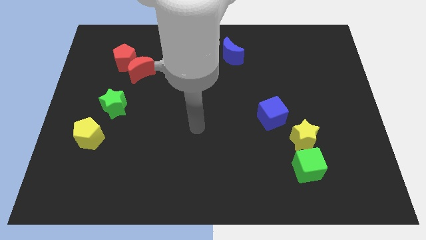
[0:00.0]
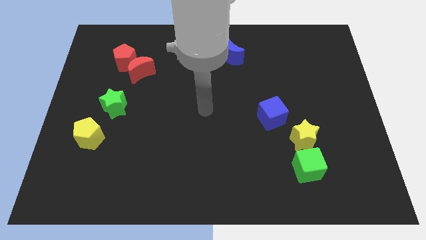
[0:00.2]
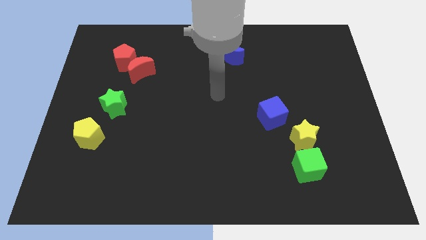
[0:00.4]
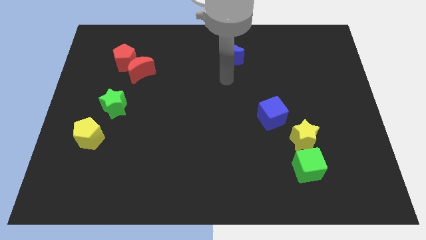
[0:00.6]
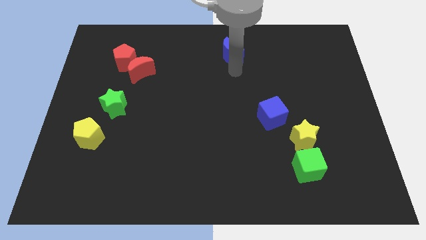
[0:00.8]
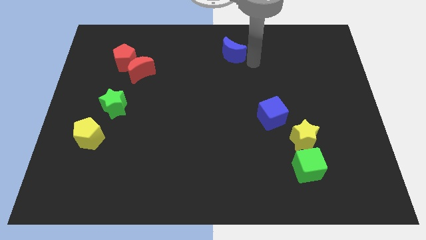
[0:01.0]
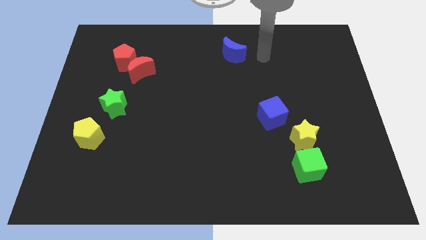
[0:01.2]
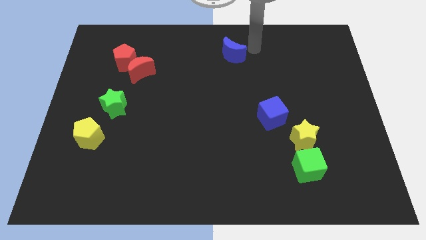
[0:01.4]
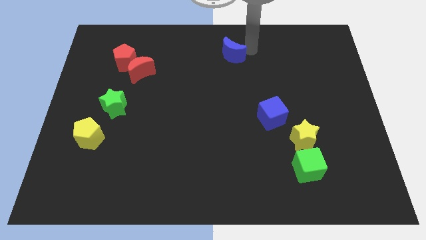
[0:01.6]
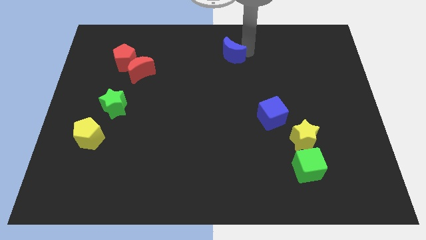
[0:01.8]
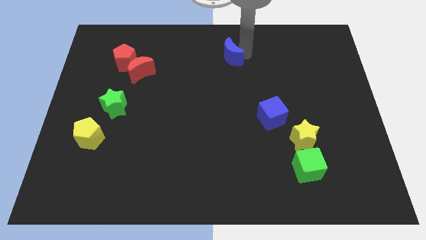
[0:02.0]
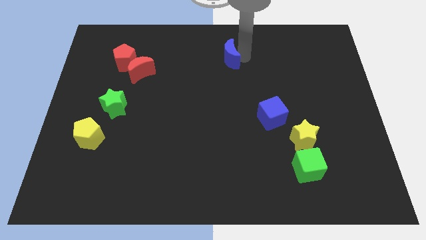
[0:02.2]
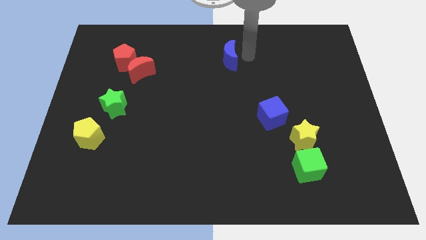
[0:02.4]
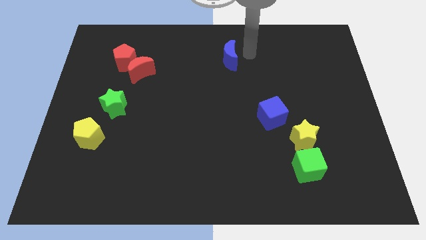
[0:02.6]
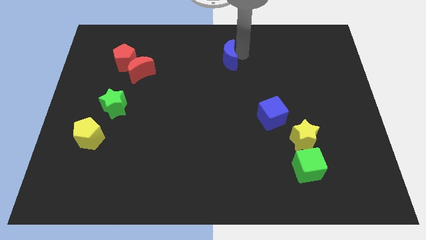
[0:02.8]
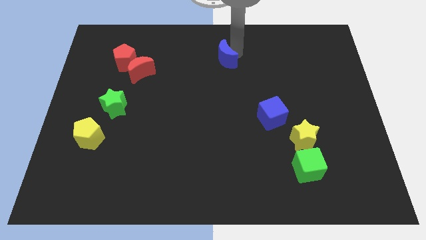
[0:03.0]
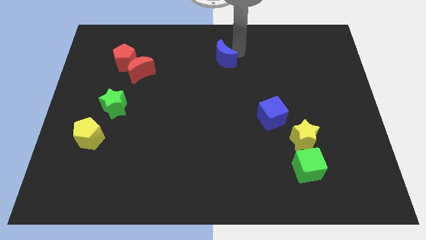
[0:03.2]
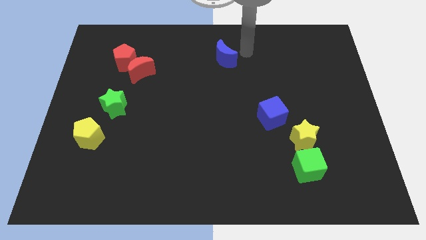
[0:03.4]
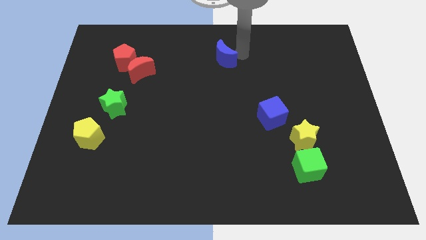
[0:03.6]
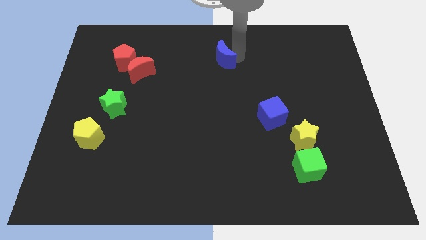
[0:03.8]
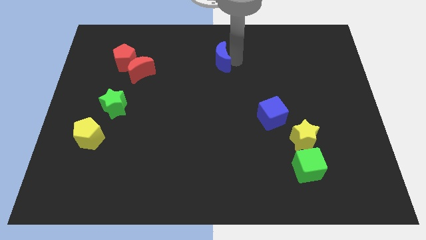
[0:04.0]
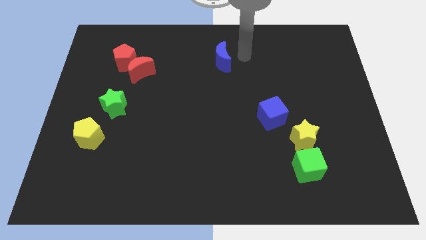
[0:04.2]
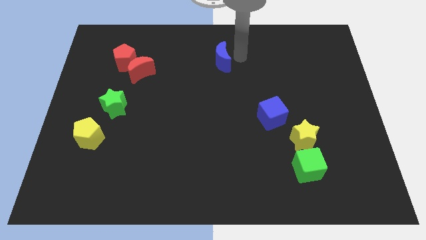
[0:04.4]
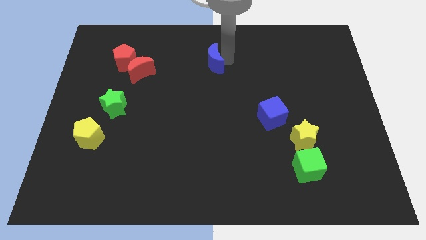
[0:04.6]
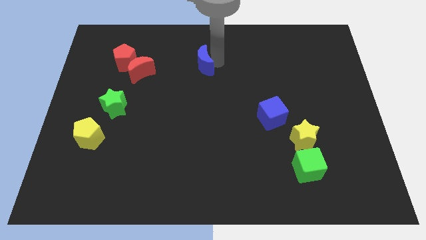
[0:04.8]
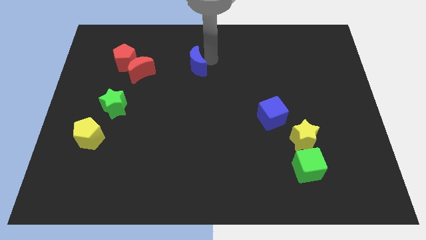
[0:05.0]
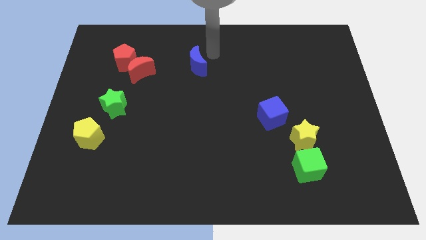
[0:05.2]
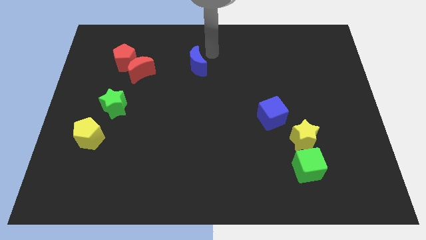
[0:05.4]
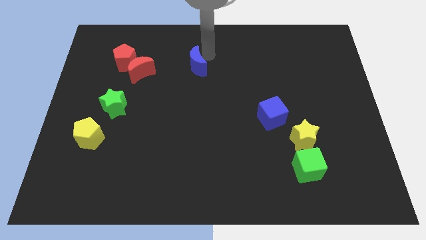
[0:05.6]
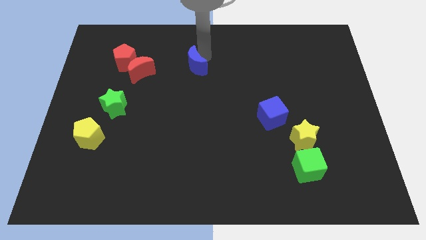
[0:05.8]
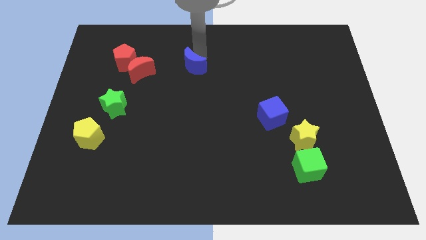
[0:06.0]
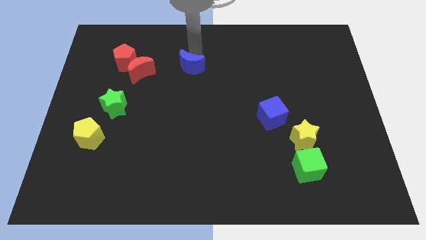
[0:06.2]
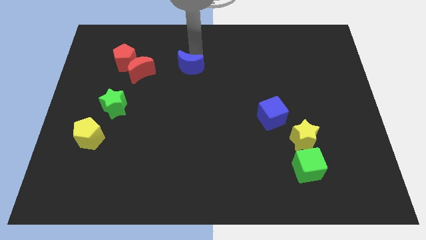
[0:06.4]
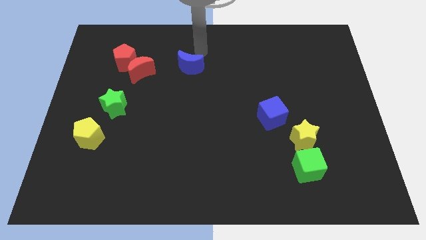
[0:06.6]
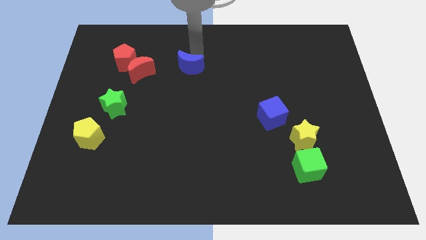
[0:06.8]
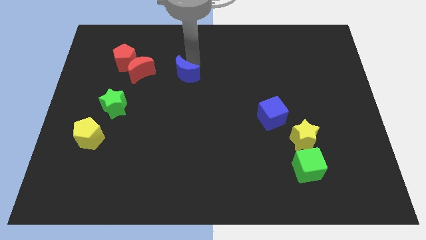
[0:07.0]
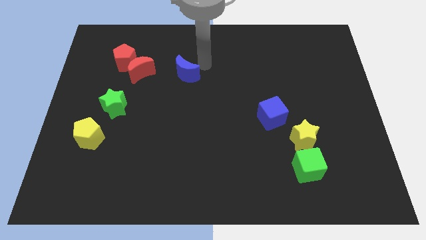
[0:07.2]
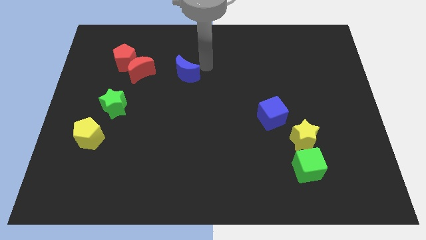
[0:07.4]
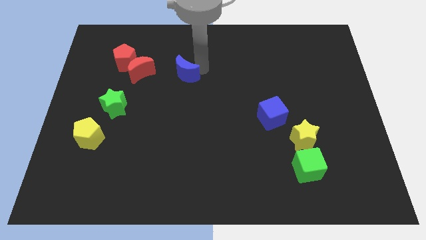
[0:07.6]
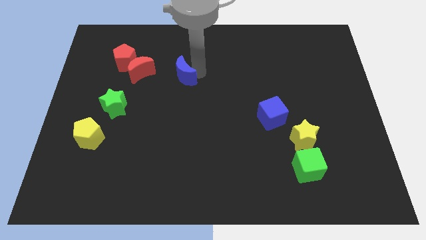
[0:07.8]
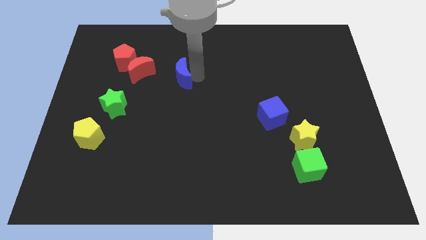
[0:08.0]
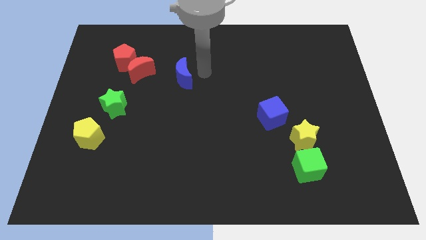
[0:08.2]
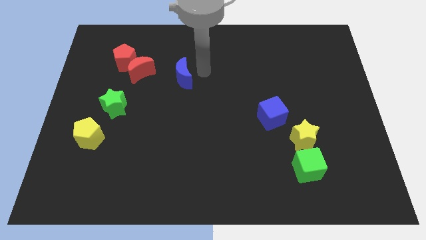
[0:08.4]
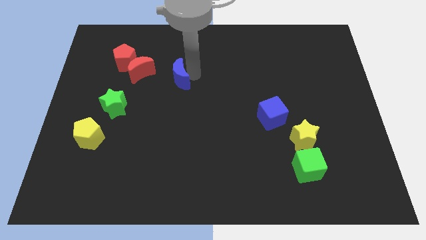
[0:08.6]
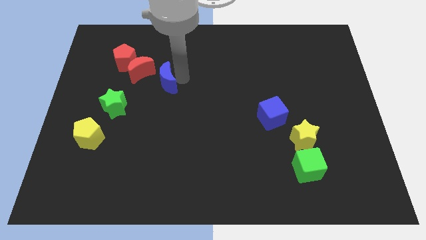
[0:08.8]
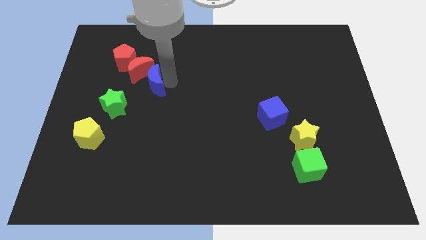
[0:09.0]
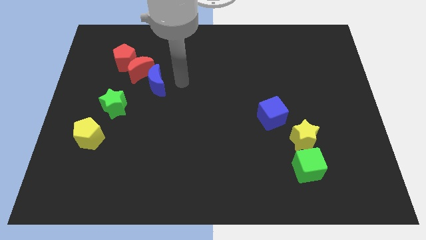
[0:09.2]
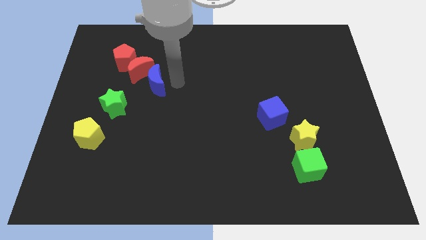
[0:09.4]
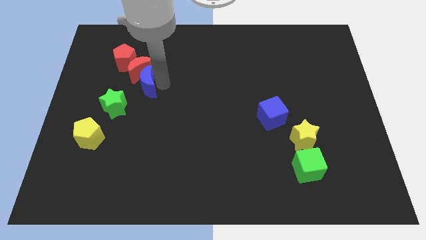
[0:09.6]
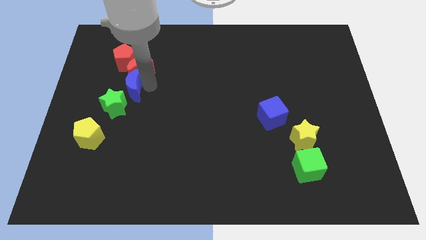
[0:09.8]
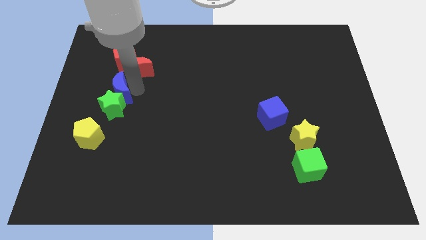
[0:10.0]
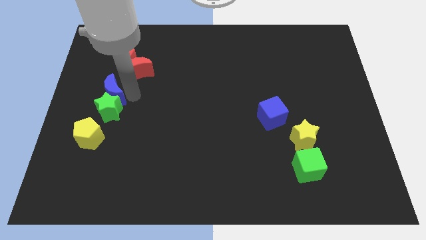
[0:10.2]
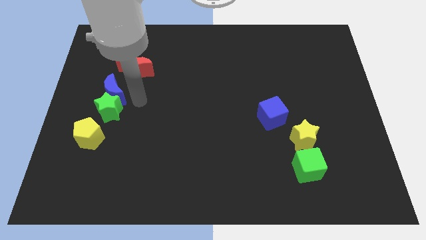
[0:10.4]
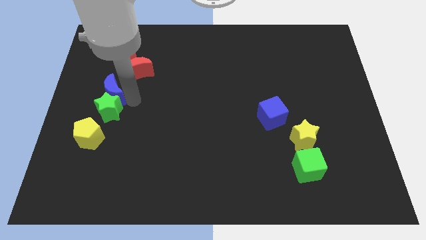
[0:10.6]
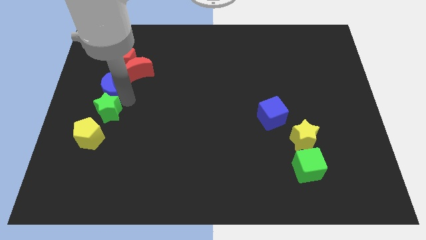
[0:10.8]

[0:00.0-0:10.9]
push the blue moon to the left side

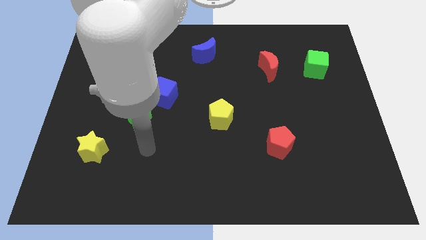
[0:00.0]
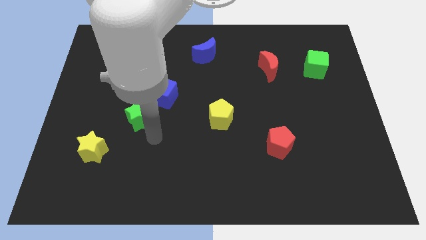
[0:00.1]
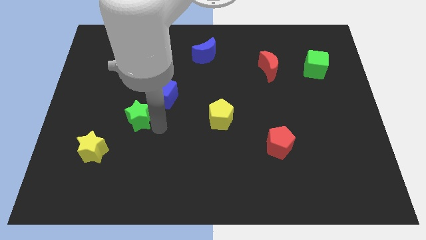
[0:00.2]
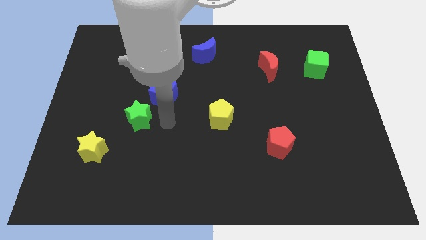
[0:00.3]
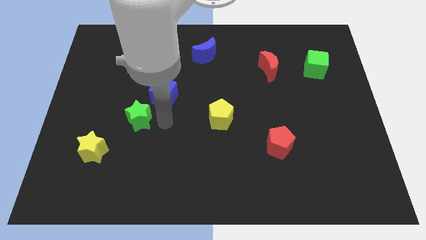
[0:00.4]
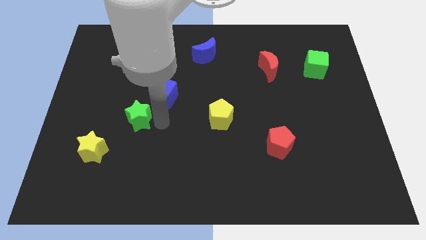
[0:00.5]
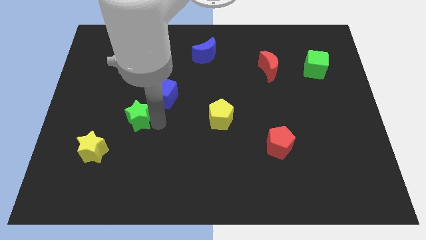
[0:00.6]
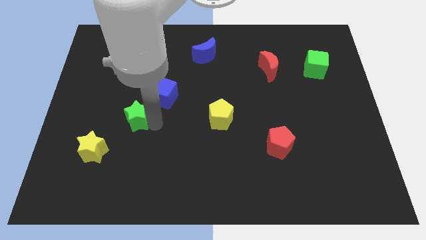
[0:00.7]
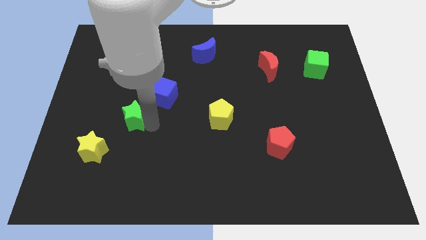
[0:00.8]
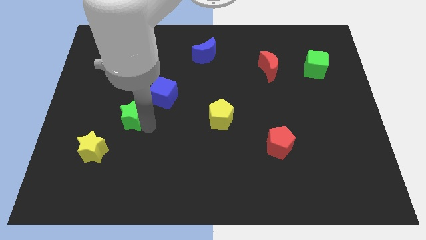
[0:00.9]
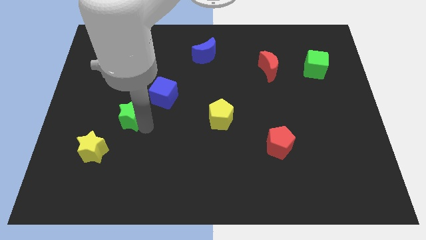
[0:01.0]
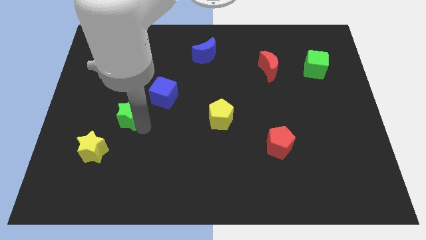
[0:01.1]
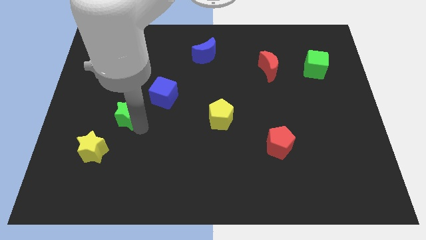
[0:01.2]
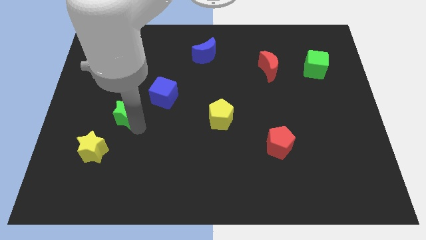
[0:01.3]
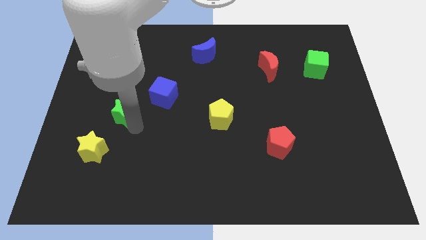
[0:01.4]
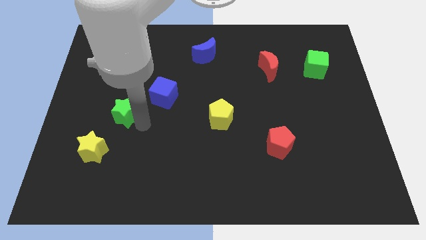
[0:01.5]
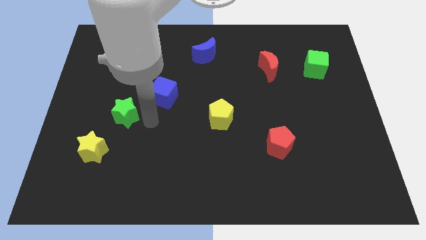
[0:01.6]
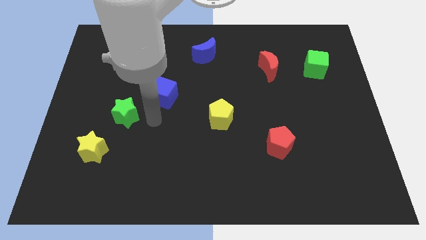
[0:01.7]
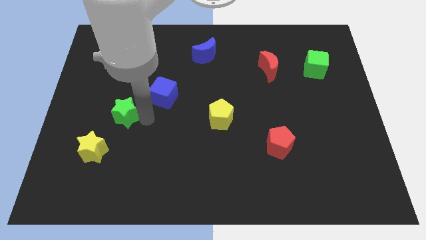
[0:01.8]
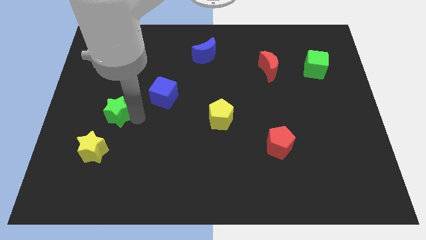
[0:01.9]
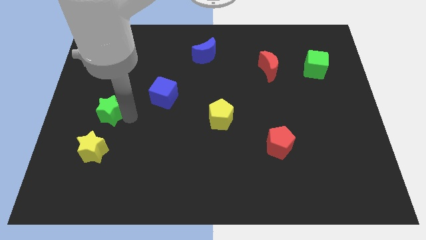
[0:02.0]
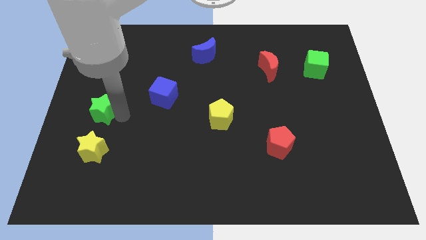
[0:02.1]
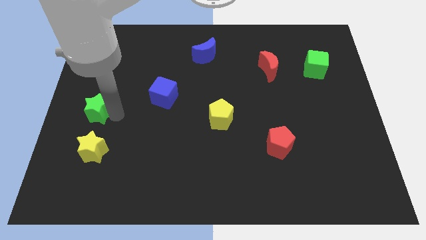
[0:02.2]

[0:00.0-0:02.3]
slide the green star to the left side
